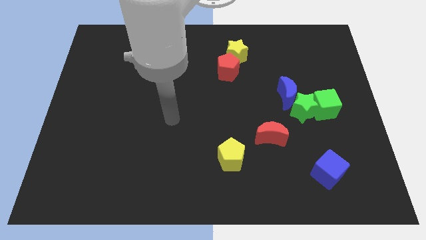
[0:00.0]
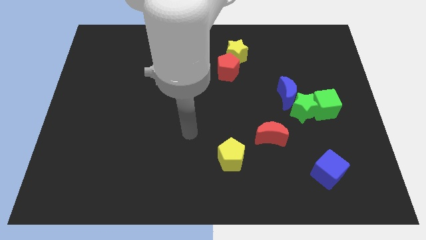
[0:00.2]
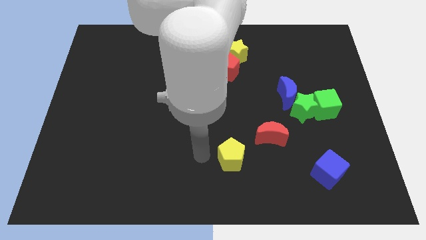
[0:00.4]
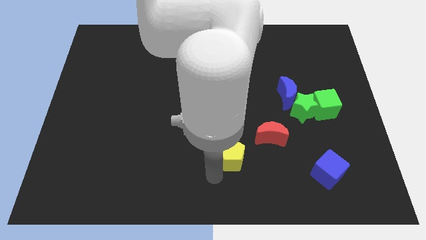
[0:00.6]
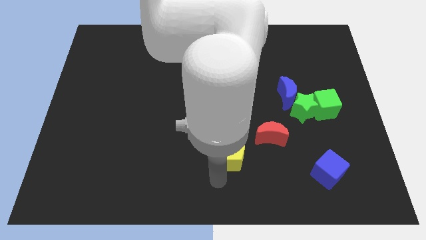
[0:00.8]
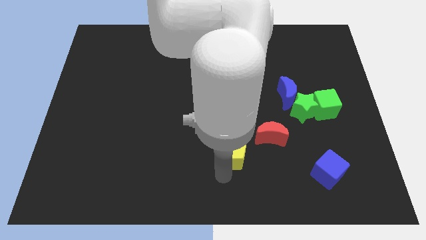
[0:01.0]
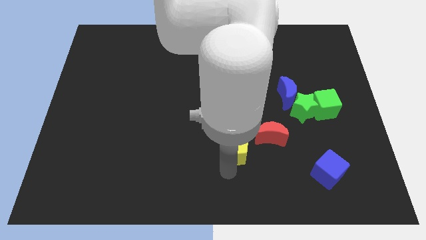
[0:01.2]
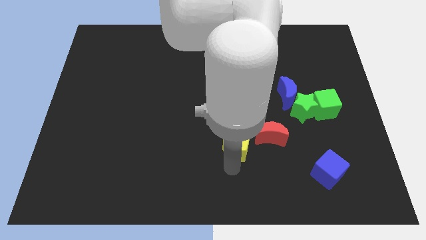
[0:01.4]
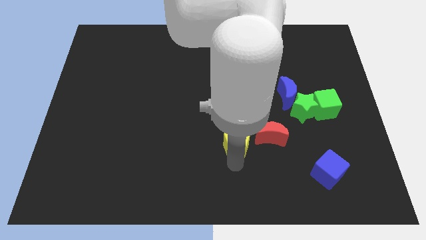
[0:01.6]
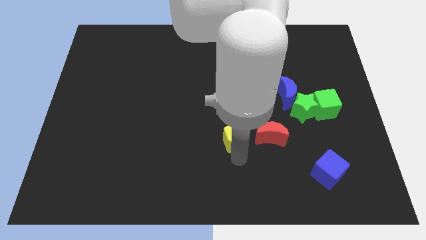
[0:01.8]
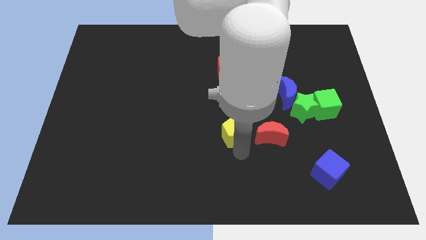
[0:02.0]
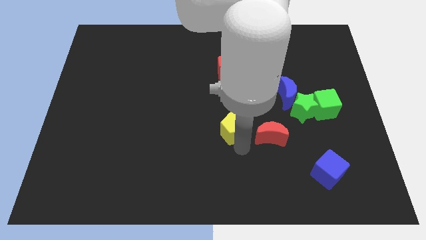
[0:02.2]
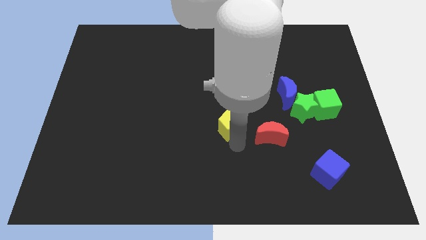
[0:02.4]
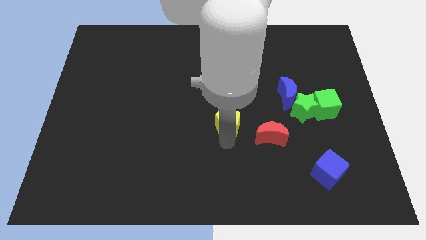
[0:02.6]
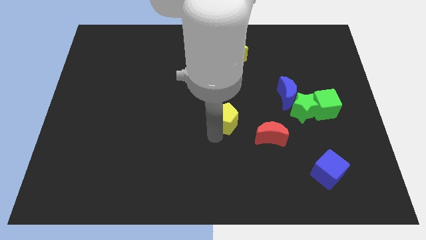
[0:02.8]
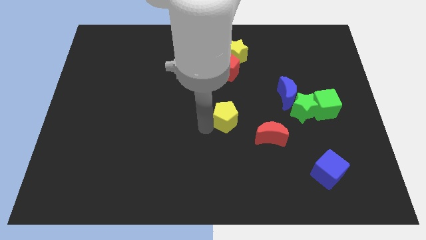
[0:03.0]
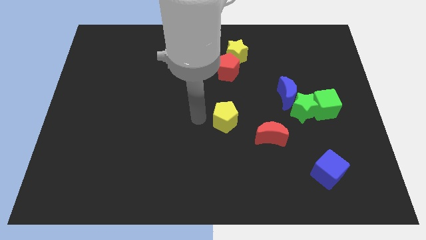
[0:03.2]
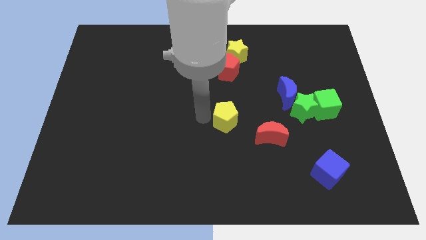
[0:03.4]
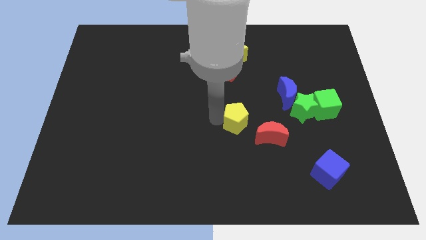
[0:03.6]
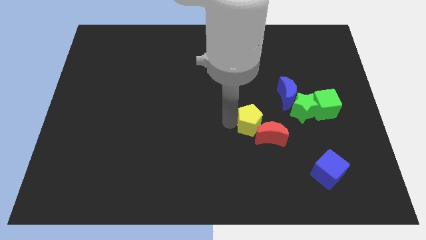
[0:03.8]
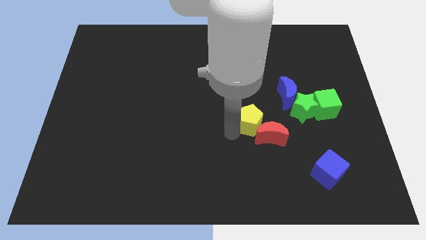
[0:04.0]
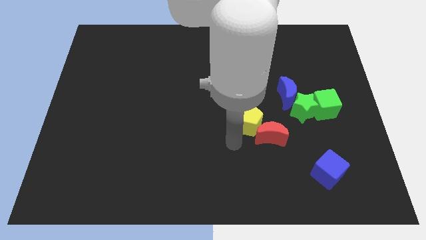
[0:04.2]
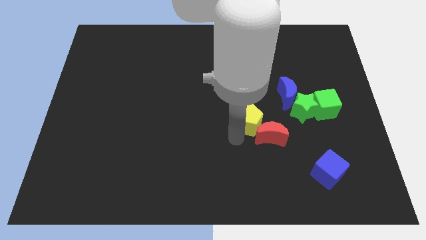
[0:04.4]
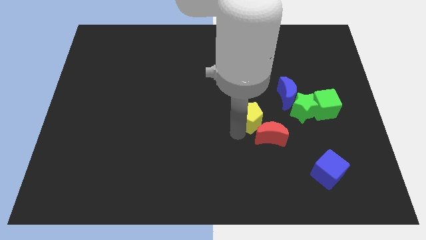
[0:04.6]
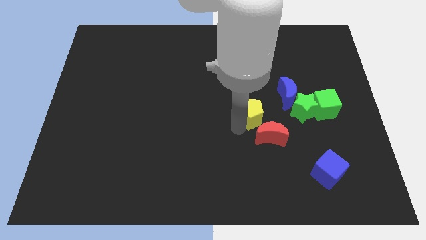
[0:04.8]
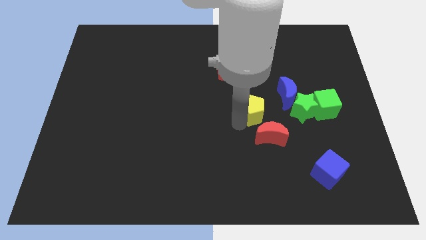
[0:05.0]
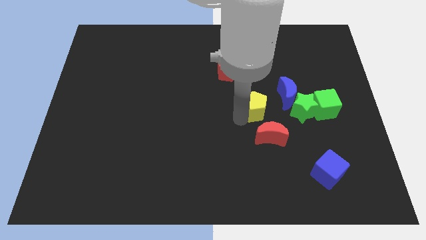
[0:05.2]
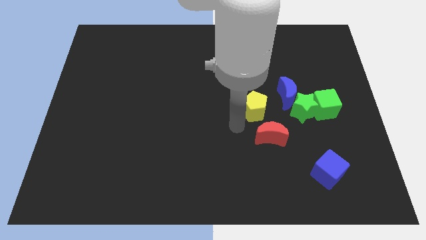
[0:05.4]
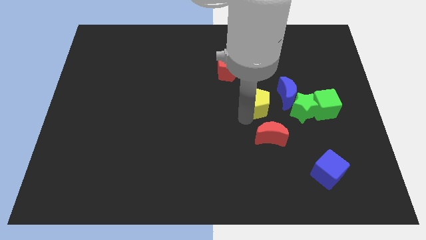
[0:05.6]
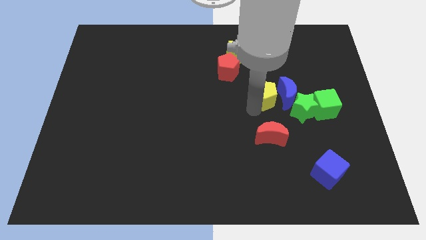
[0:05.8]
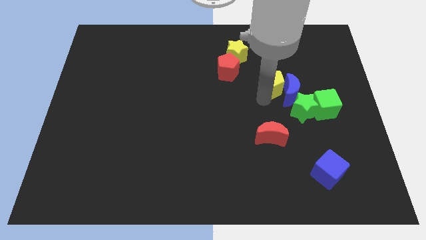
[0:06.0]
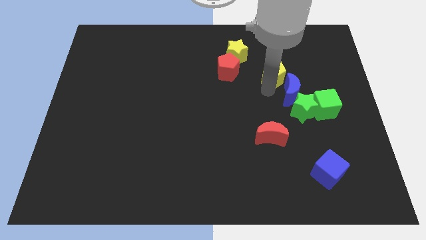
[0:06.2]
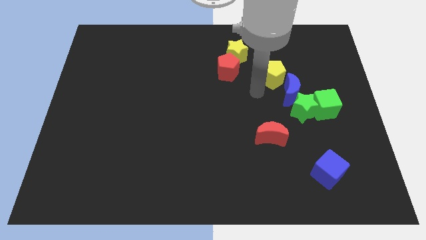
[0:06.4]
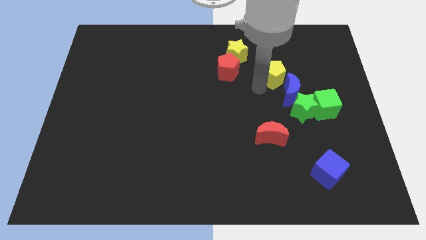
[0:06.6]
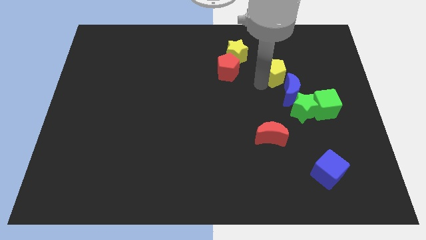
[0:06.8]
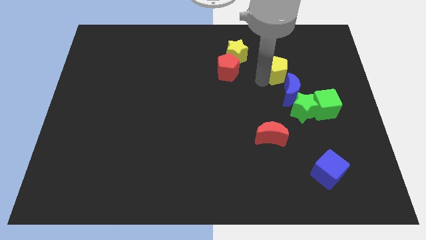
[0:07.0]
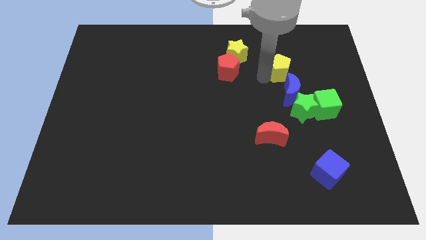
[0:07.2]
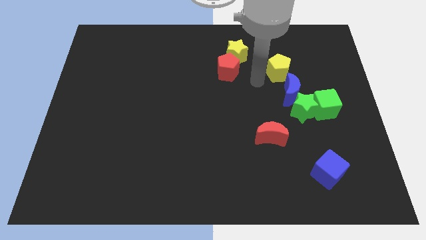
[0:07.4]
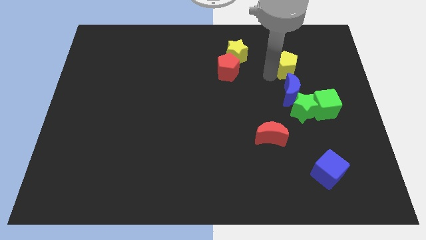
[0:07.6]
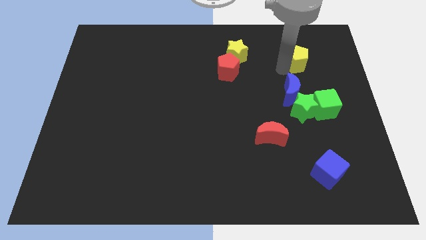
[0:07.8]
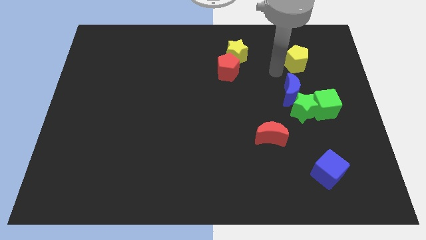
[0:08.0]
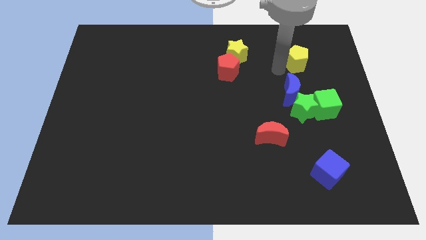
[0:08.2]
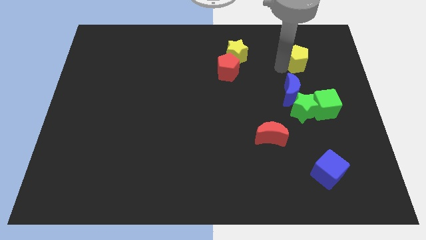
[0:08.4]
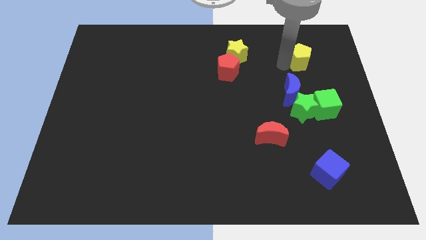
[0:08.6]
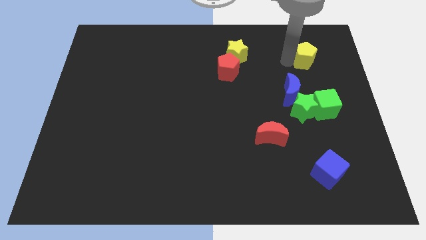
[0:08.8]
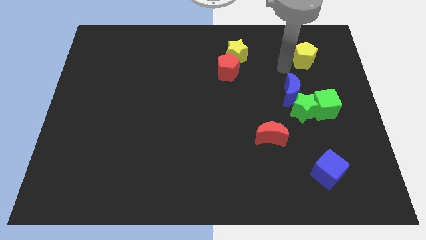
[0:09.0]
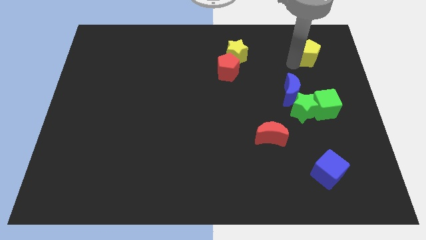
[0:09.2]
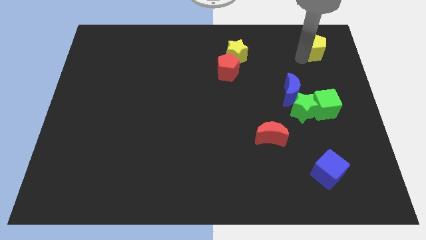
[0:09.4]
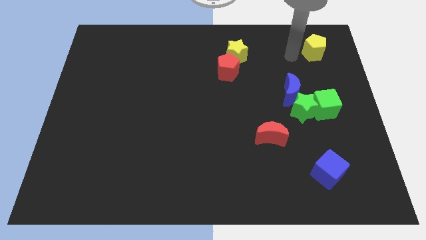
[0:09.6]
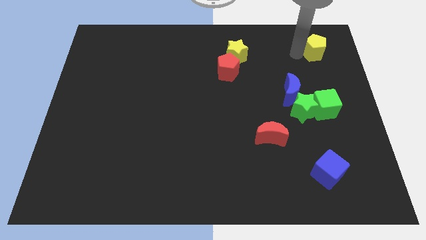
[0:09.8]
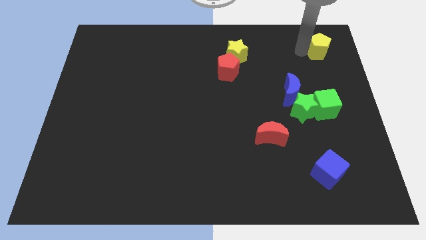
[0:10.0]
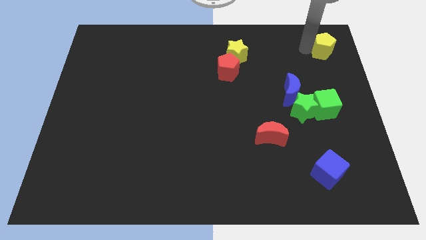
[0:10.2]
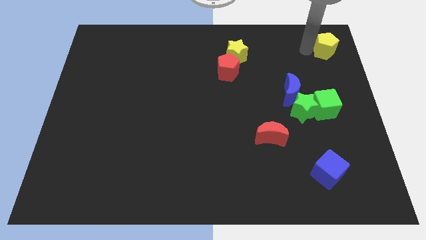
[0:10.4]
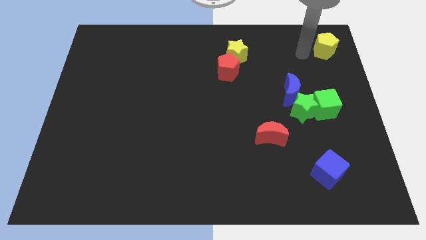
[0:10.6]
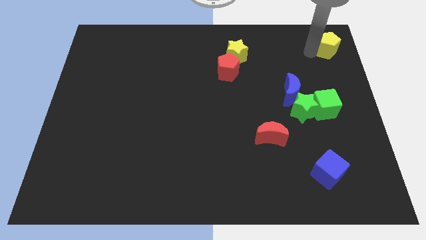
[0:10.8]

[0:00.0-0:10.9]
push the yellow pentagon to the top right of the board

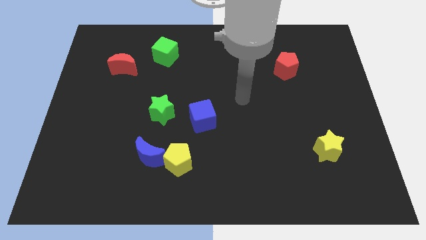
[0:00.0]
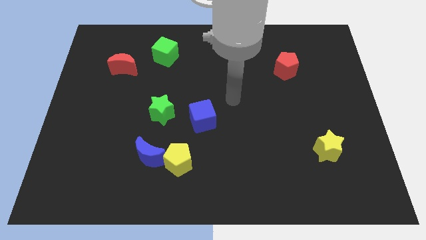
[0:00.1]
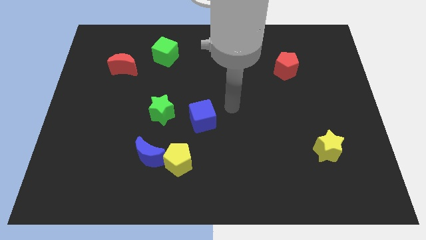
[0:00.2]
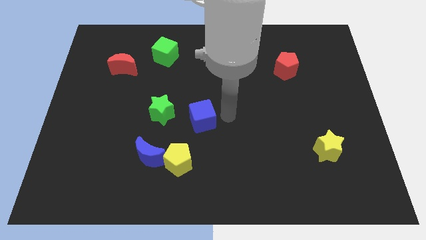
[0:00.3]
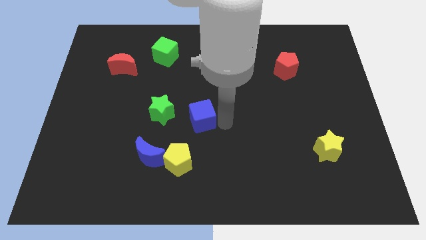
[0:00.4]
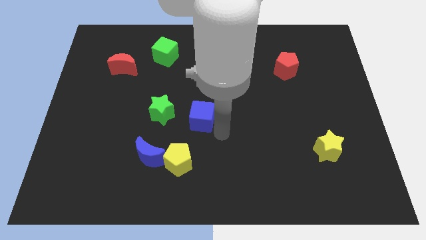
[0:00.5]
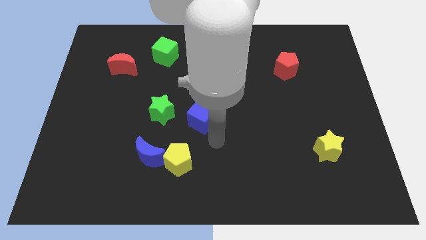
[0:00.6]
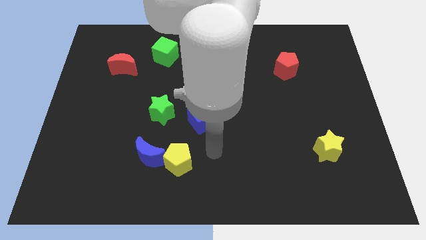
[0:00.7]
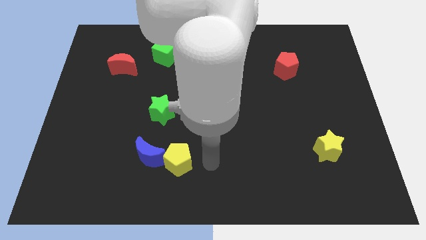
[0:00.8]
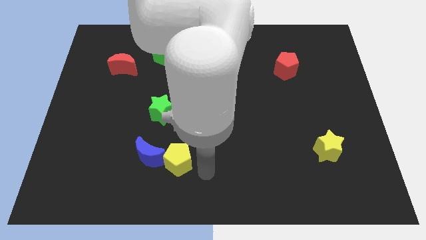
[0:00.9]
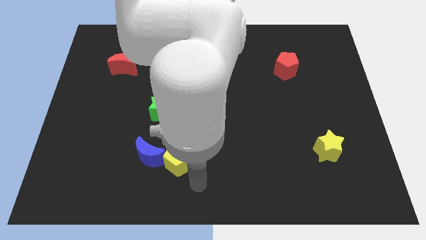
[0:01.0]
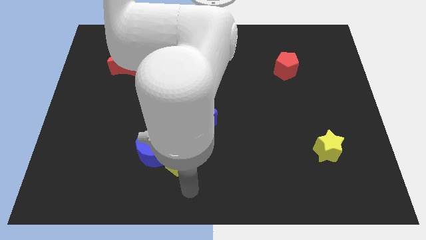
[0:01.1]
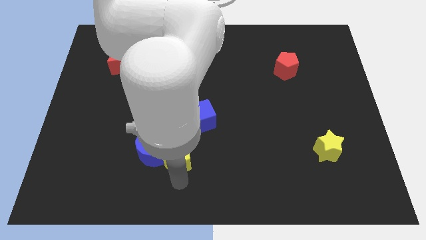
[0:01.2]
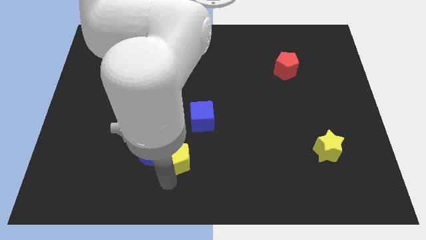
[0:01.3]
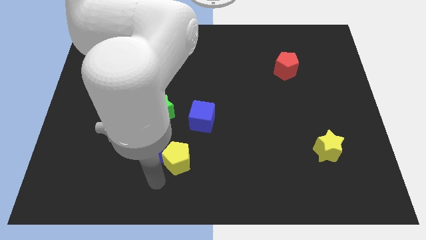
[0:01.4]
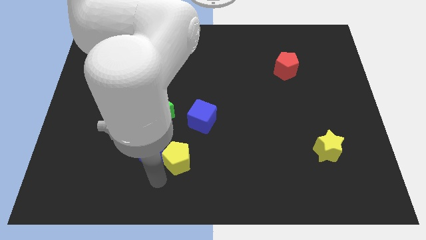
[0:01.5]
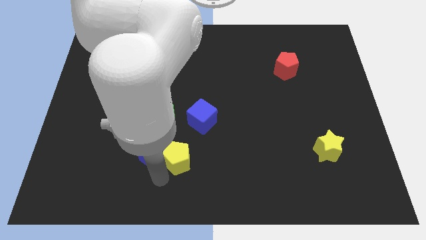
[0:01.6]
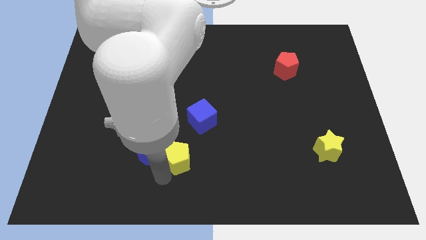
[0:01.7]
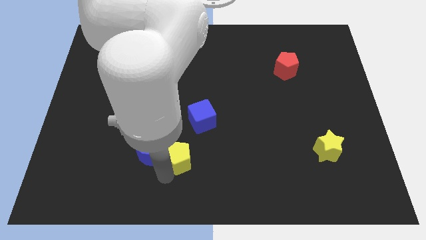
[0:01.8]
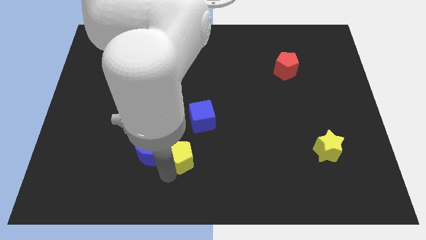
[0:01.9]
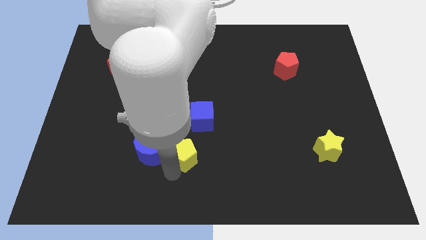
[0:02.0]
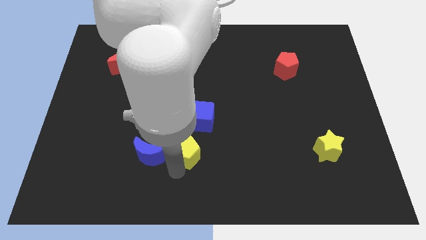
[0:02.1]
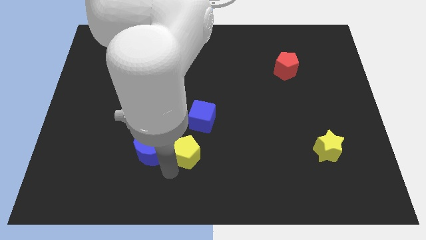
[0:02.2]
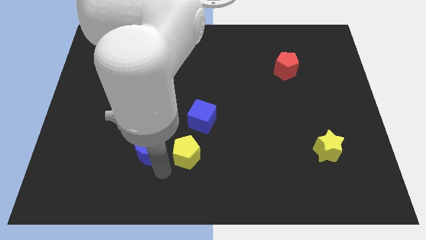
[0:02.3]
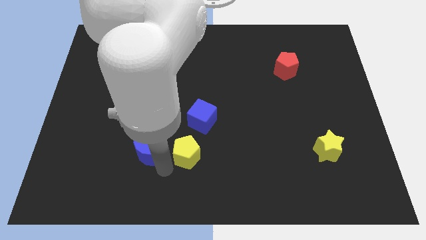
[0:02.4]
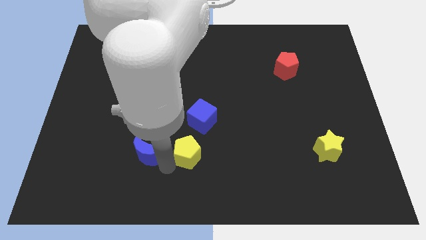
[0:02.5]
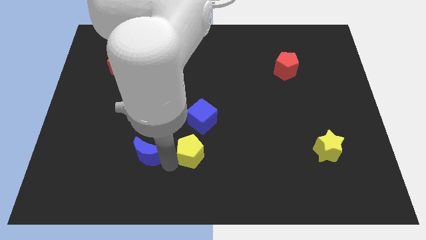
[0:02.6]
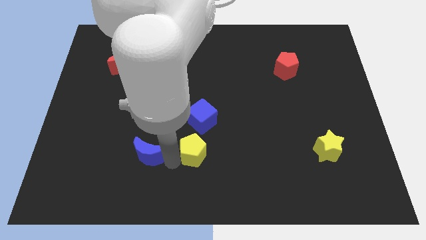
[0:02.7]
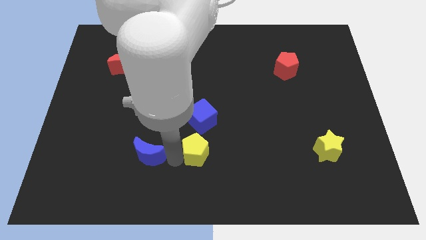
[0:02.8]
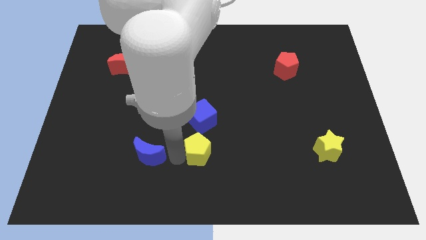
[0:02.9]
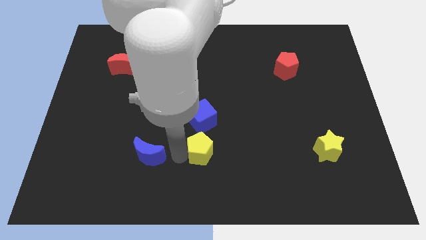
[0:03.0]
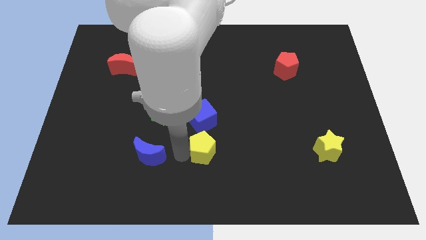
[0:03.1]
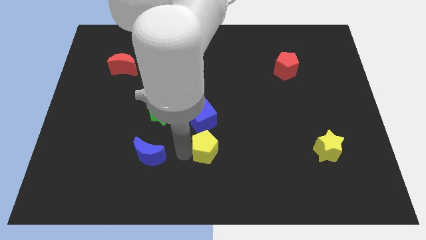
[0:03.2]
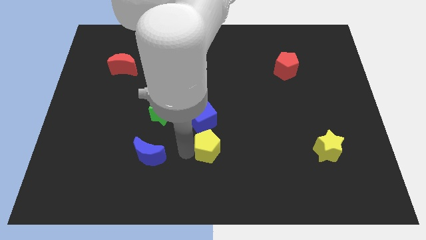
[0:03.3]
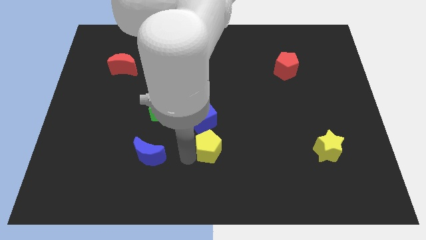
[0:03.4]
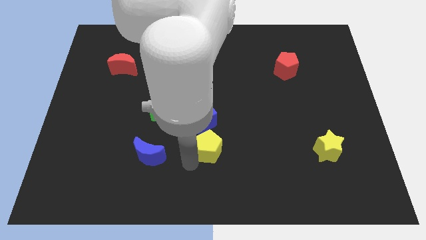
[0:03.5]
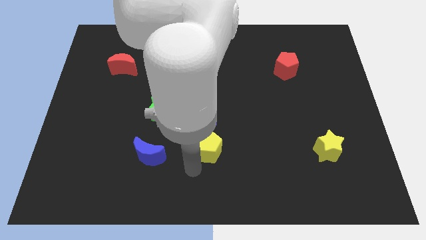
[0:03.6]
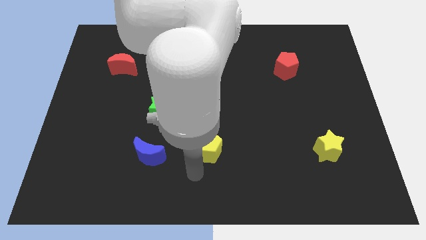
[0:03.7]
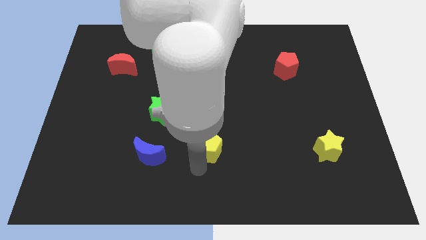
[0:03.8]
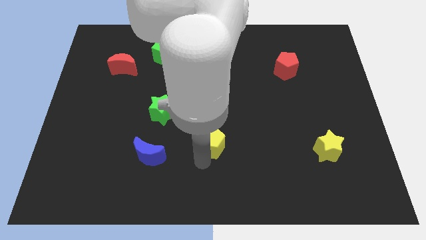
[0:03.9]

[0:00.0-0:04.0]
push the yellow pentagon to the center of the board
